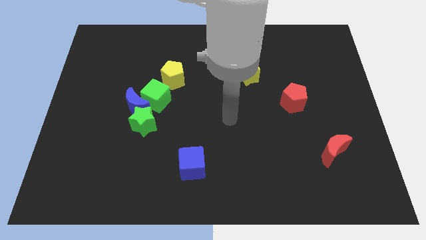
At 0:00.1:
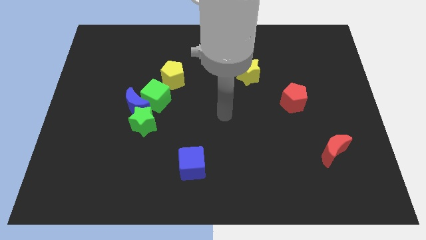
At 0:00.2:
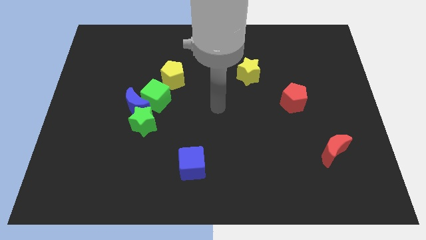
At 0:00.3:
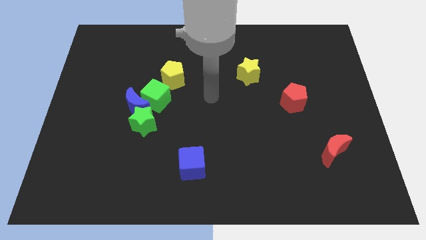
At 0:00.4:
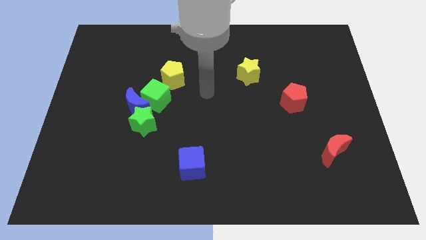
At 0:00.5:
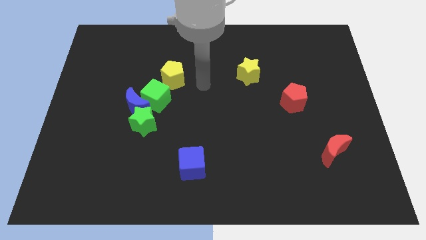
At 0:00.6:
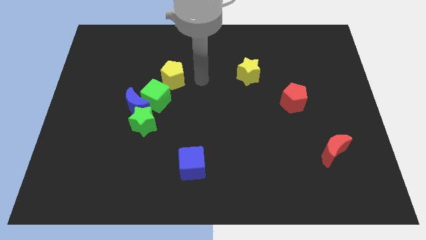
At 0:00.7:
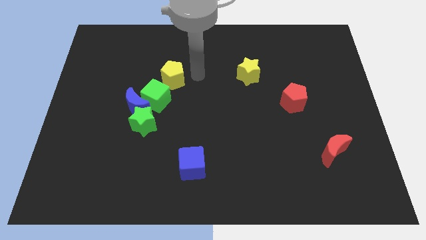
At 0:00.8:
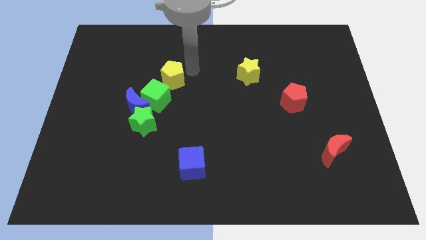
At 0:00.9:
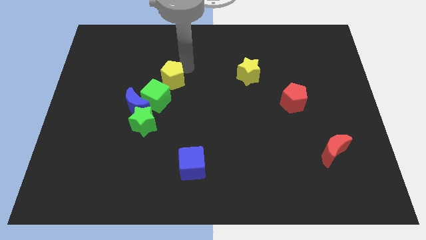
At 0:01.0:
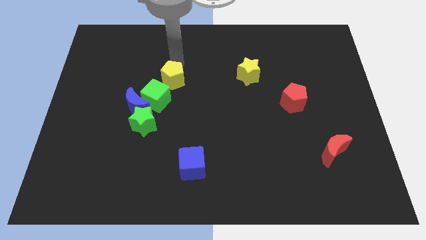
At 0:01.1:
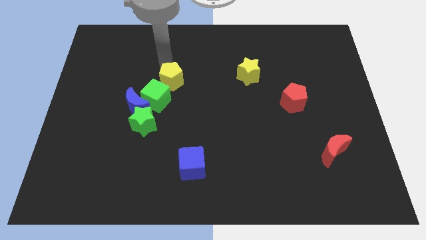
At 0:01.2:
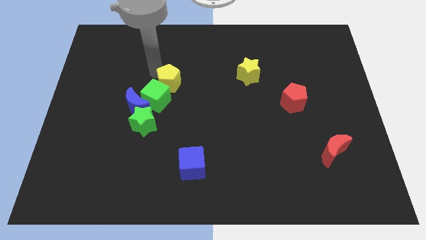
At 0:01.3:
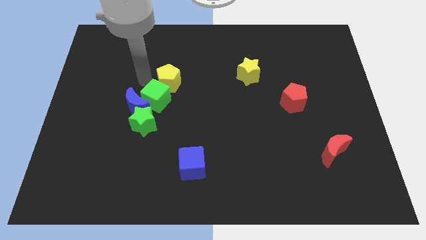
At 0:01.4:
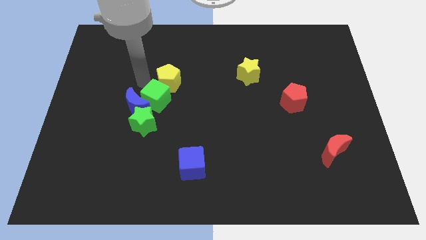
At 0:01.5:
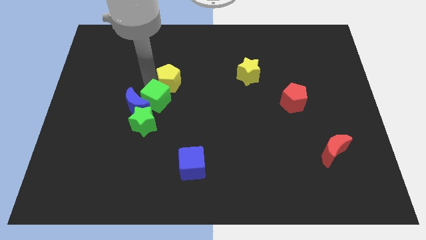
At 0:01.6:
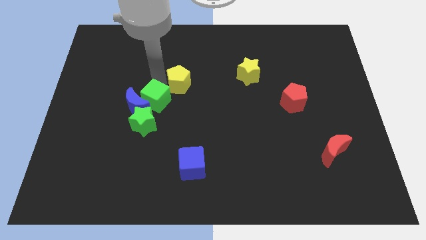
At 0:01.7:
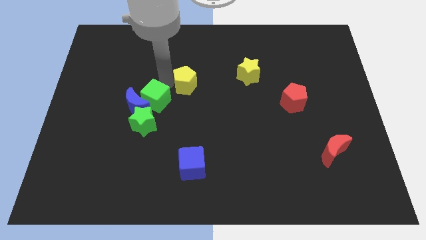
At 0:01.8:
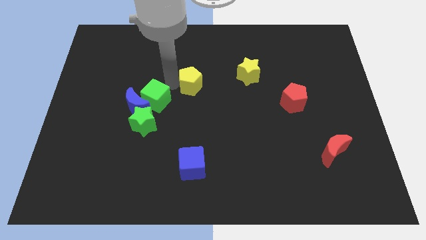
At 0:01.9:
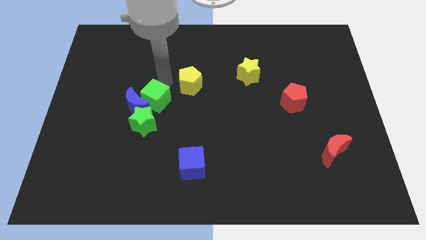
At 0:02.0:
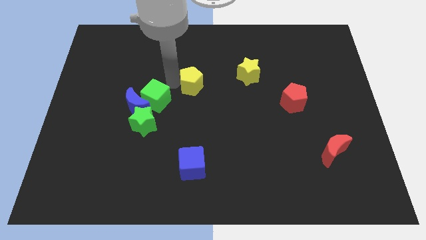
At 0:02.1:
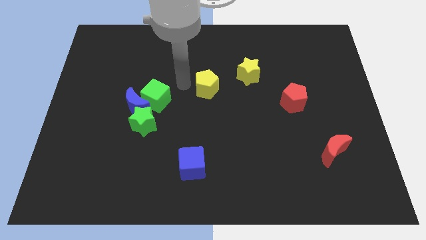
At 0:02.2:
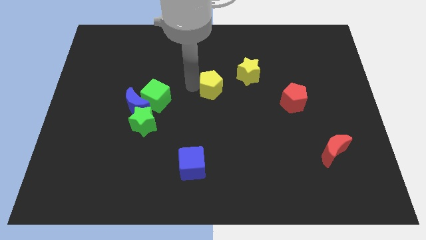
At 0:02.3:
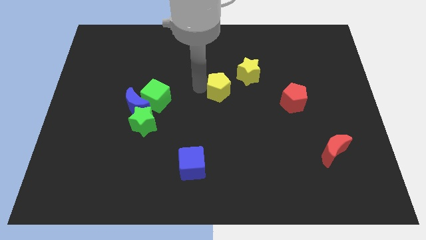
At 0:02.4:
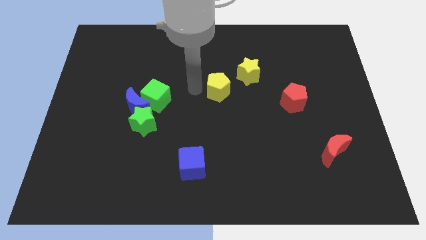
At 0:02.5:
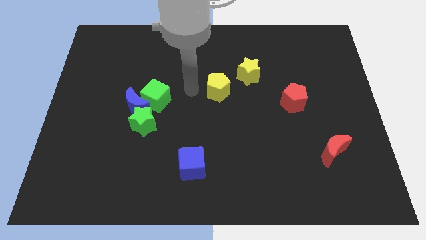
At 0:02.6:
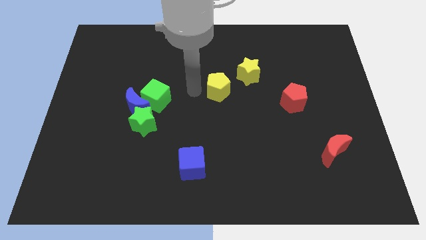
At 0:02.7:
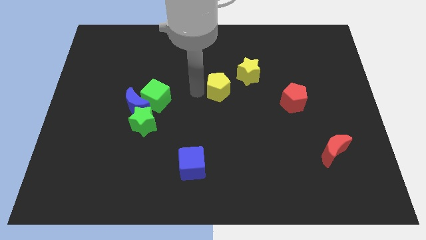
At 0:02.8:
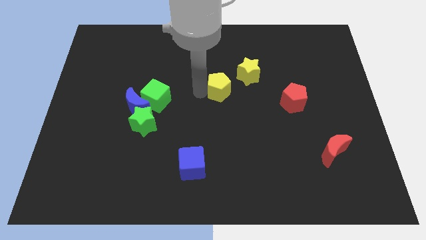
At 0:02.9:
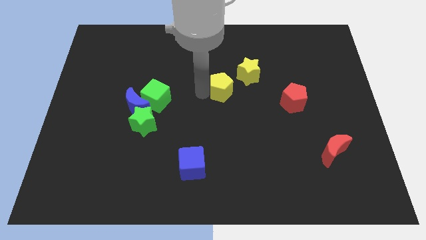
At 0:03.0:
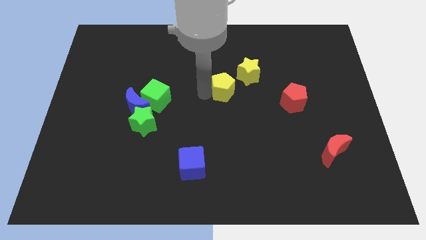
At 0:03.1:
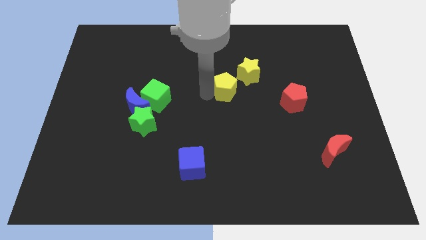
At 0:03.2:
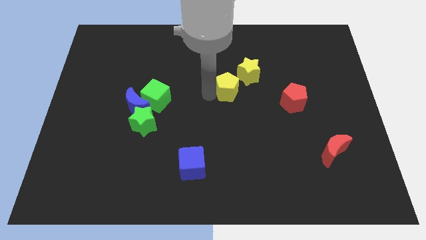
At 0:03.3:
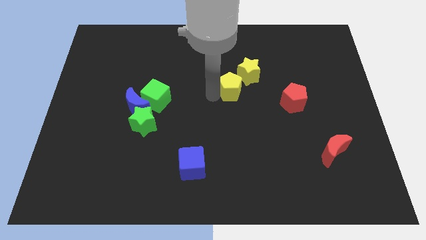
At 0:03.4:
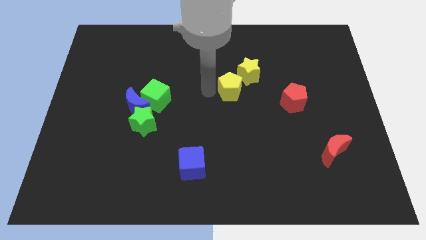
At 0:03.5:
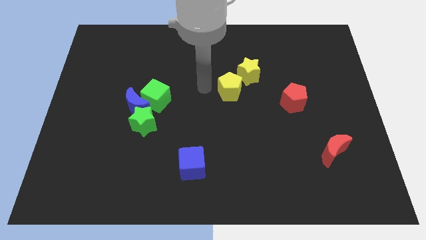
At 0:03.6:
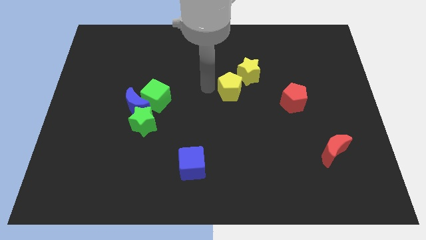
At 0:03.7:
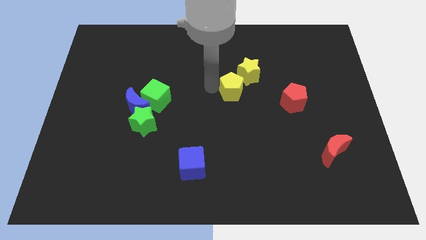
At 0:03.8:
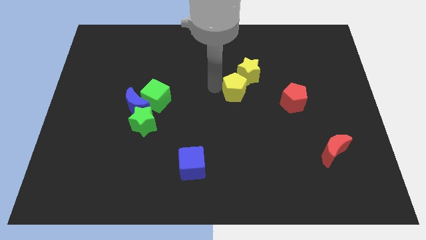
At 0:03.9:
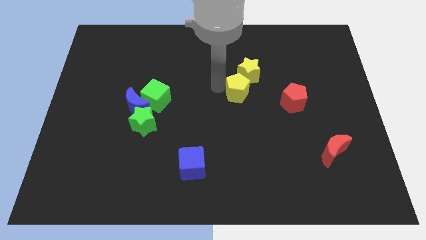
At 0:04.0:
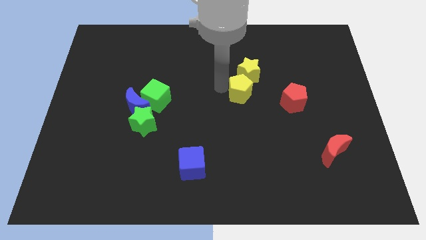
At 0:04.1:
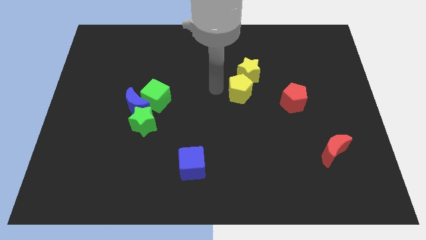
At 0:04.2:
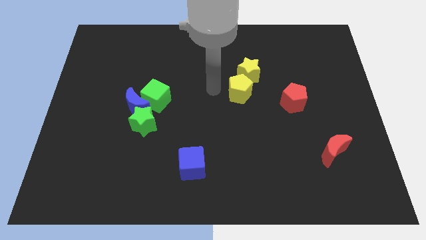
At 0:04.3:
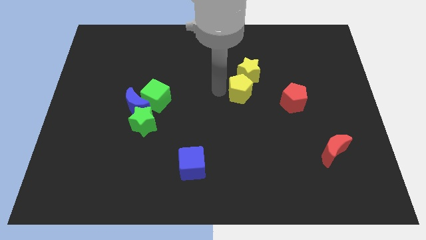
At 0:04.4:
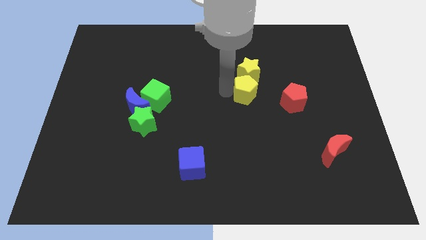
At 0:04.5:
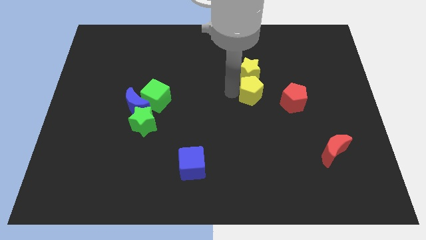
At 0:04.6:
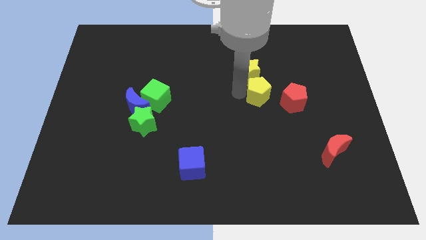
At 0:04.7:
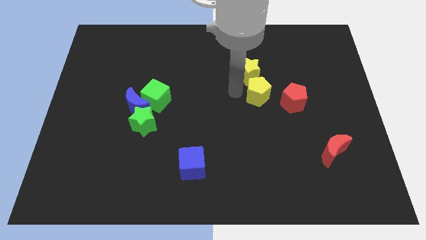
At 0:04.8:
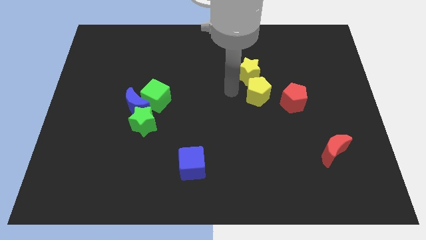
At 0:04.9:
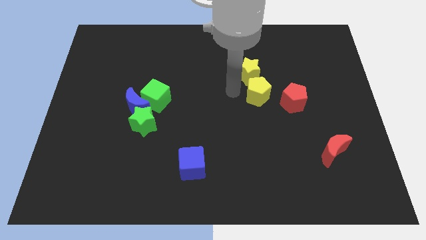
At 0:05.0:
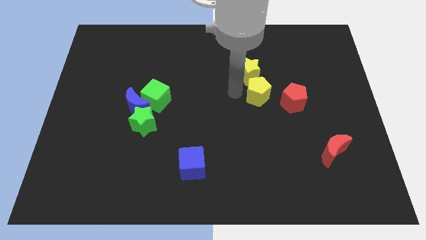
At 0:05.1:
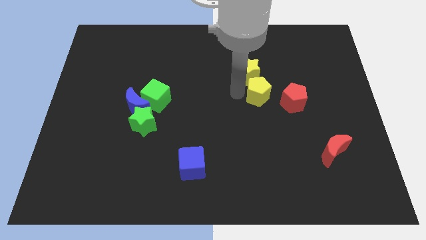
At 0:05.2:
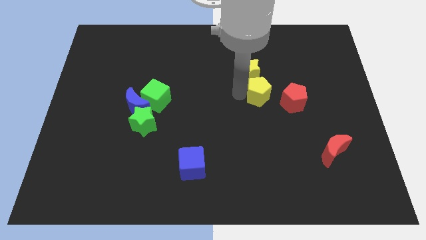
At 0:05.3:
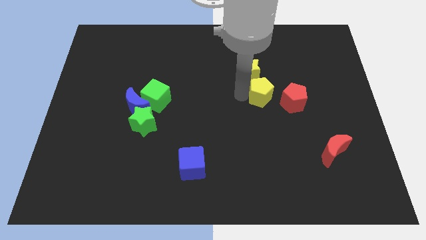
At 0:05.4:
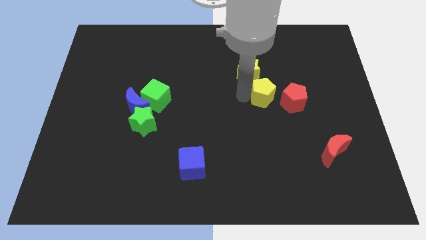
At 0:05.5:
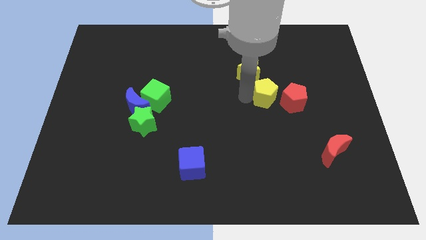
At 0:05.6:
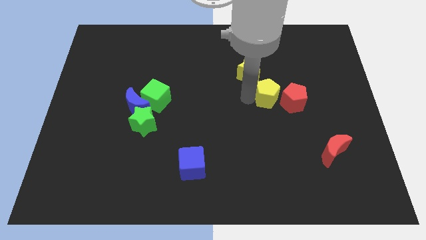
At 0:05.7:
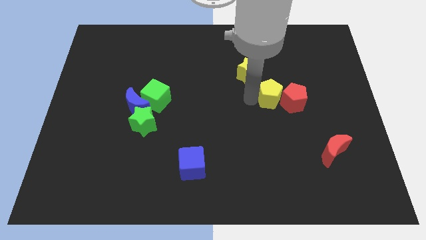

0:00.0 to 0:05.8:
push the yellow pentagon close to the red pentagon

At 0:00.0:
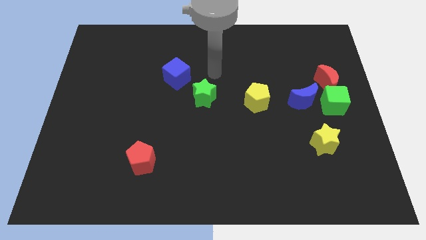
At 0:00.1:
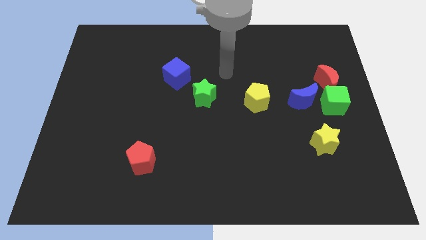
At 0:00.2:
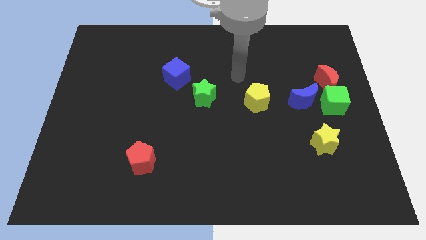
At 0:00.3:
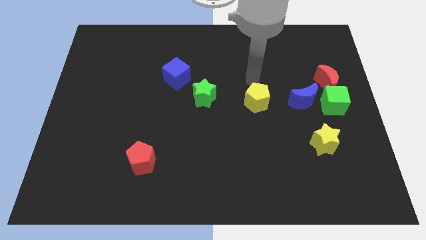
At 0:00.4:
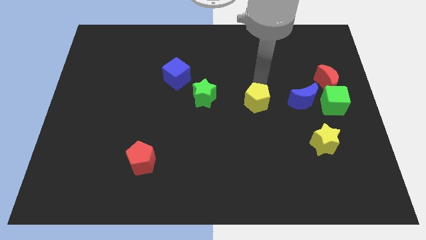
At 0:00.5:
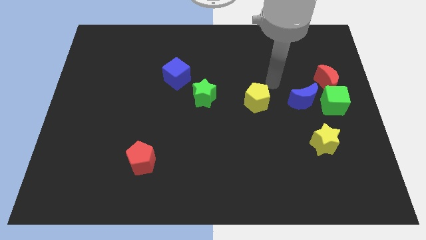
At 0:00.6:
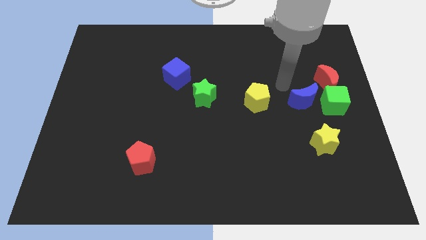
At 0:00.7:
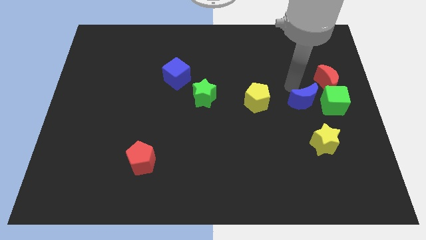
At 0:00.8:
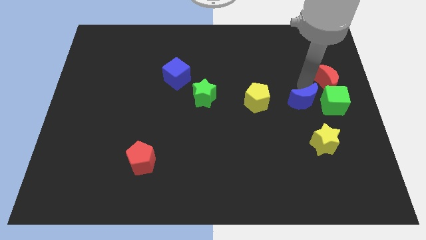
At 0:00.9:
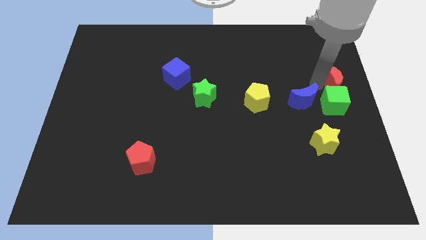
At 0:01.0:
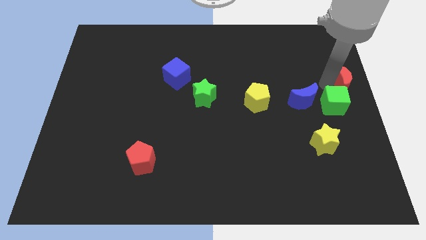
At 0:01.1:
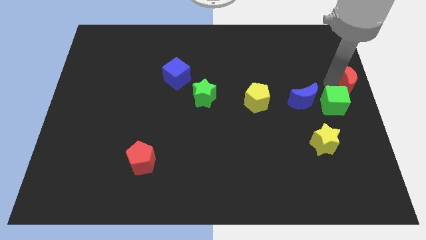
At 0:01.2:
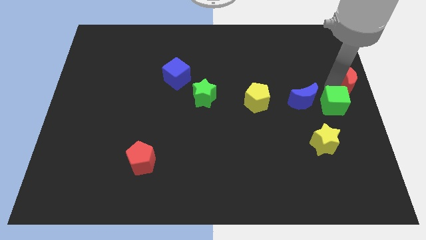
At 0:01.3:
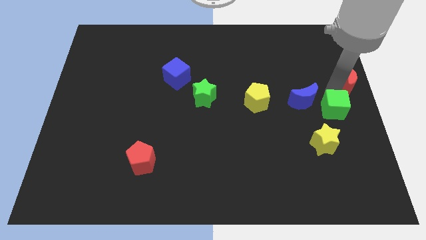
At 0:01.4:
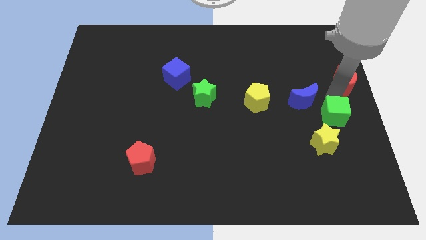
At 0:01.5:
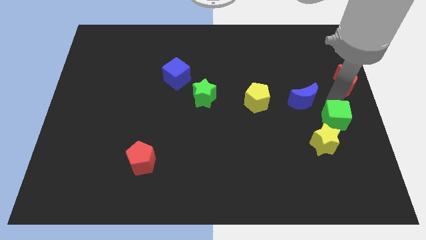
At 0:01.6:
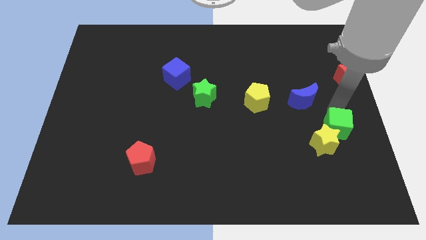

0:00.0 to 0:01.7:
slide the green cube close to the yellow star
